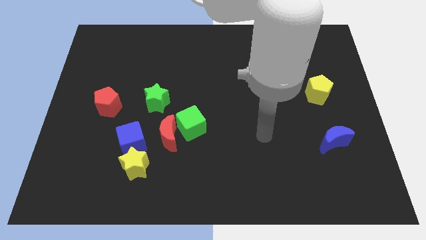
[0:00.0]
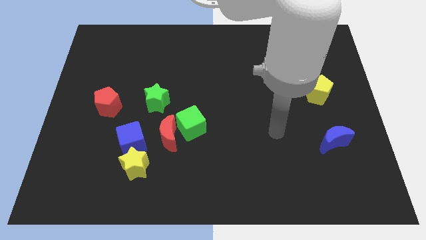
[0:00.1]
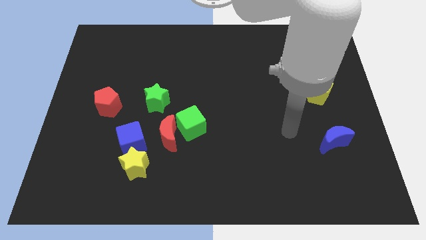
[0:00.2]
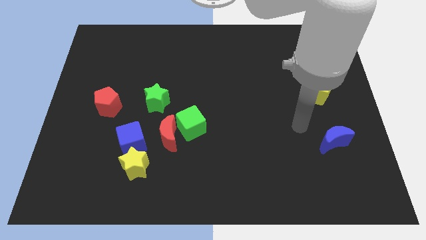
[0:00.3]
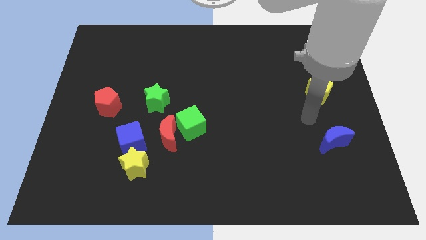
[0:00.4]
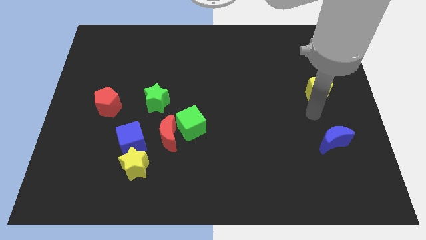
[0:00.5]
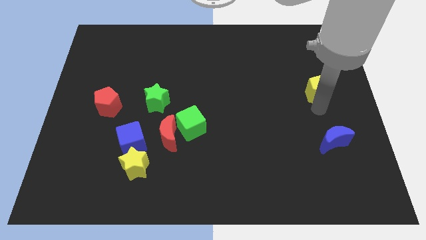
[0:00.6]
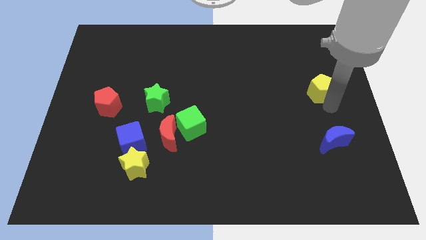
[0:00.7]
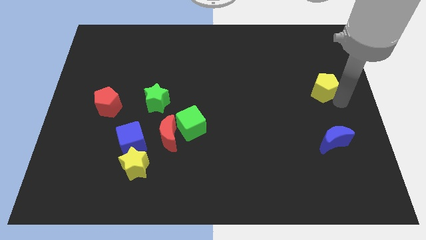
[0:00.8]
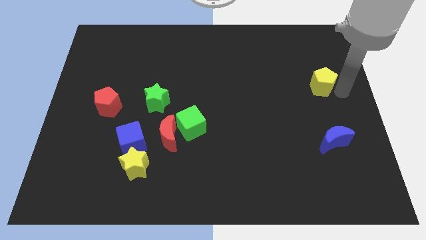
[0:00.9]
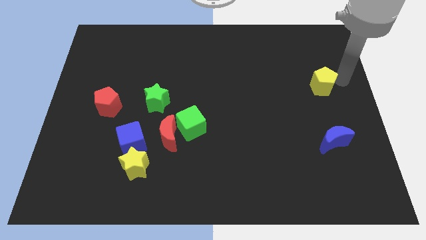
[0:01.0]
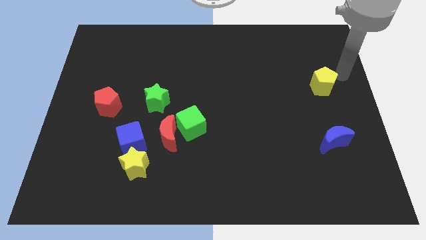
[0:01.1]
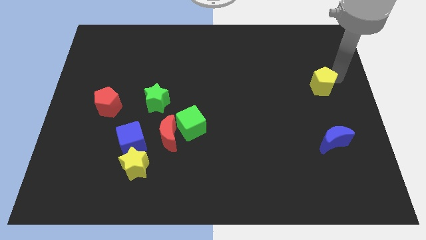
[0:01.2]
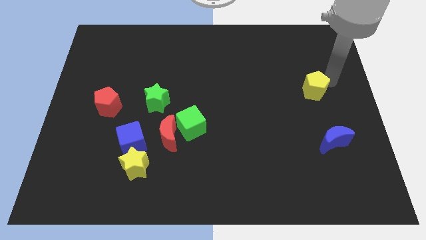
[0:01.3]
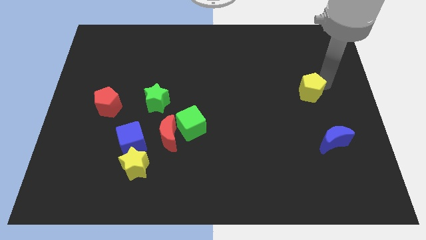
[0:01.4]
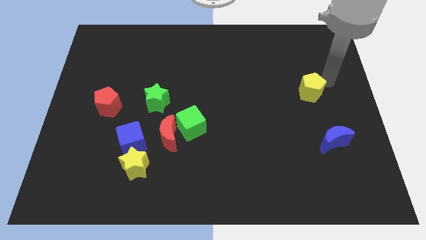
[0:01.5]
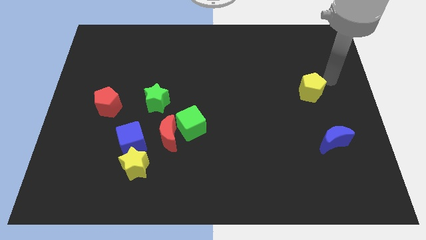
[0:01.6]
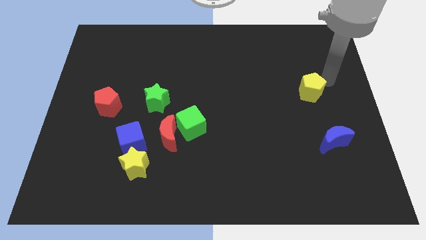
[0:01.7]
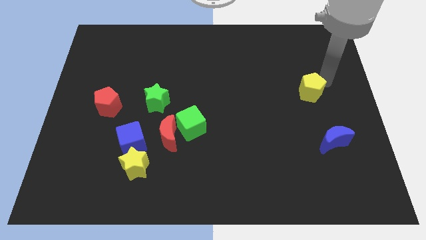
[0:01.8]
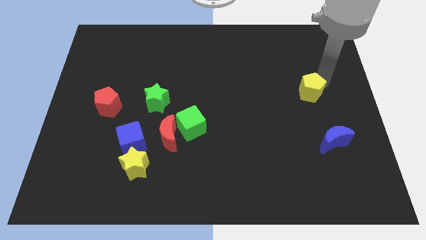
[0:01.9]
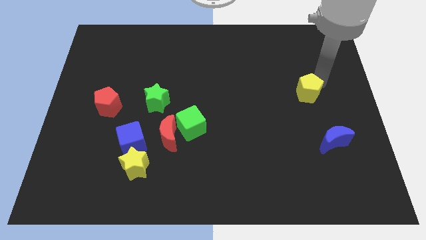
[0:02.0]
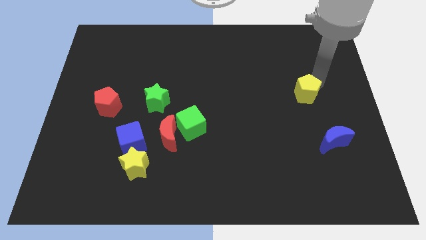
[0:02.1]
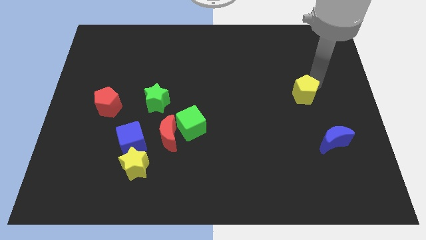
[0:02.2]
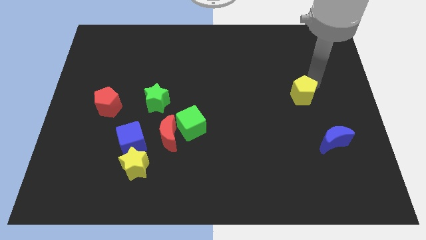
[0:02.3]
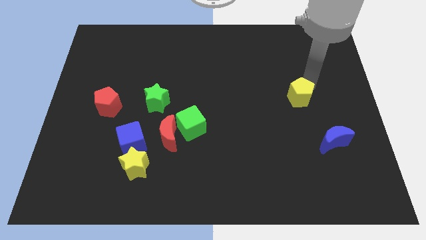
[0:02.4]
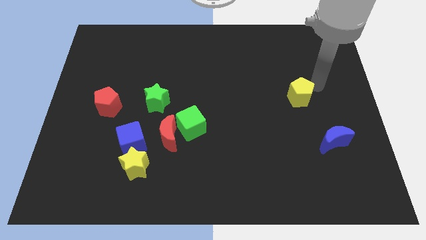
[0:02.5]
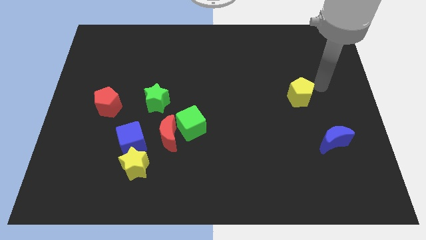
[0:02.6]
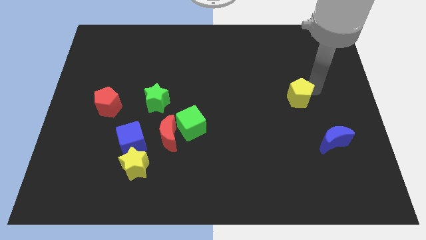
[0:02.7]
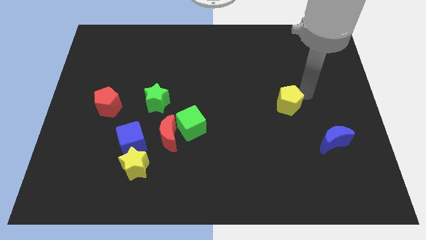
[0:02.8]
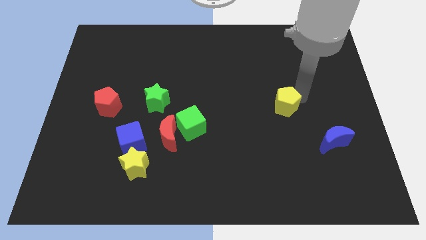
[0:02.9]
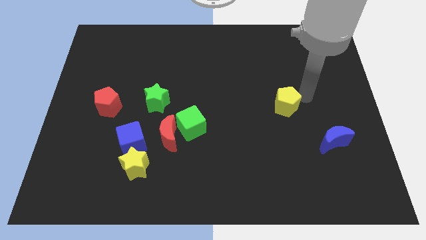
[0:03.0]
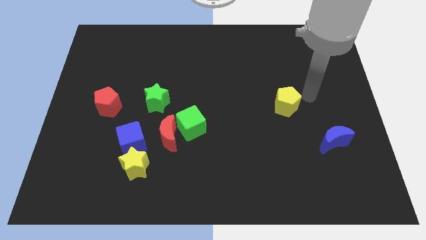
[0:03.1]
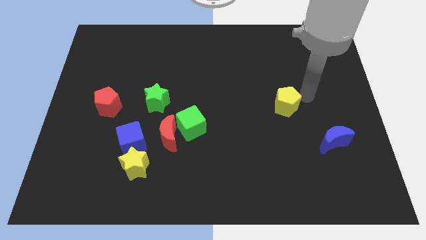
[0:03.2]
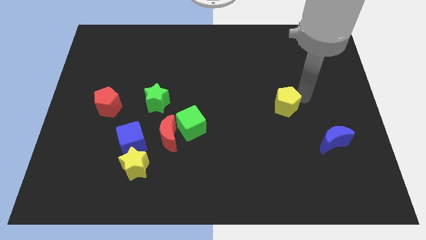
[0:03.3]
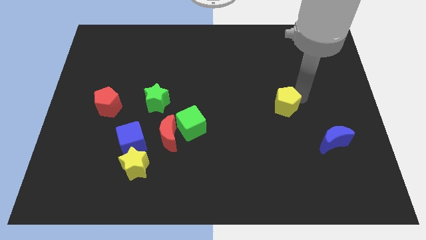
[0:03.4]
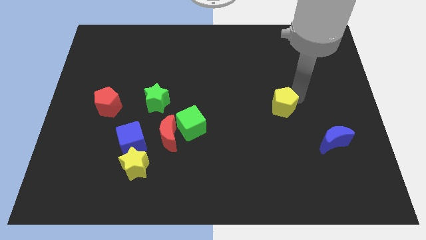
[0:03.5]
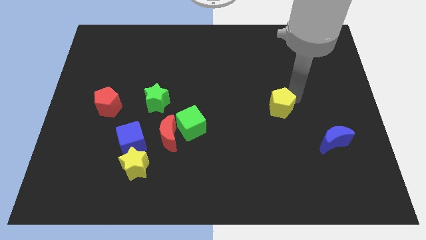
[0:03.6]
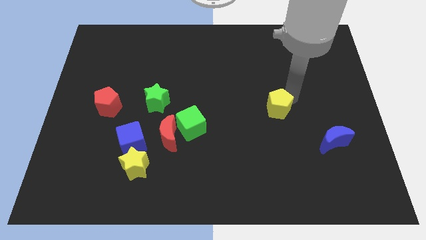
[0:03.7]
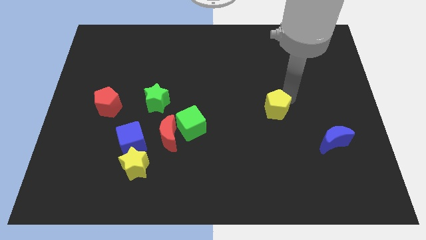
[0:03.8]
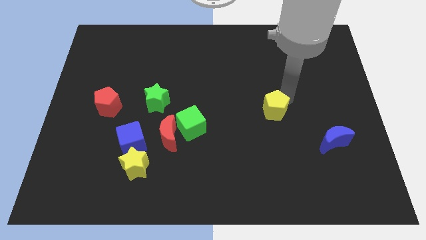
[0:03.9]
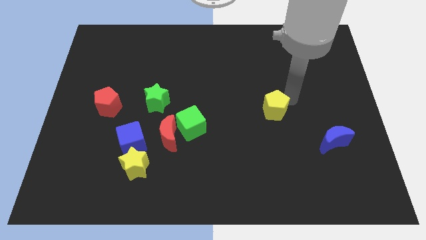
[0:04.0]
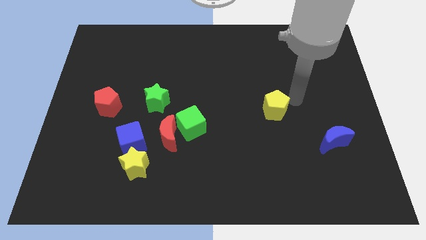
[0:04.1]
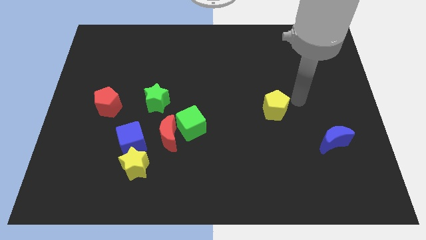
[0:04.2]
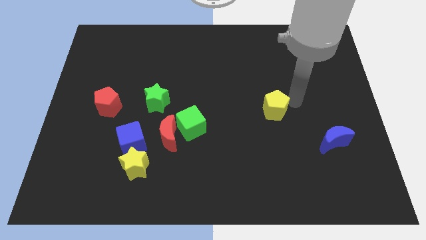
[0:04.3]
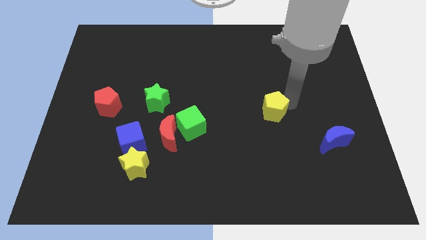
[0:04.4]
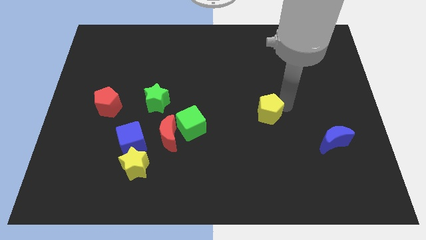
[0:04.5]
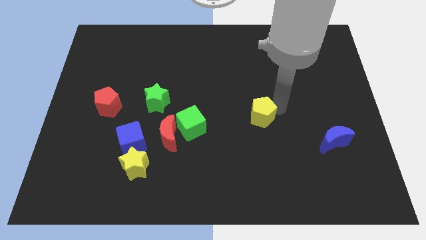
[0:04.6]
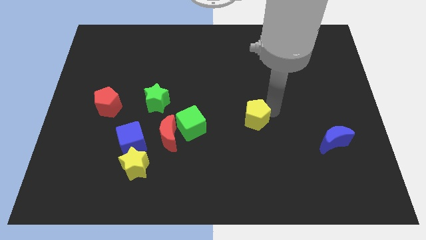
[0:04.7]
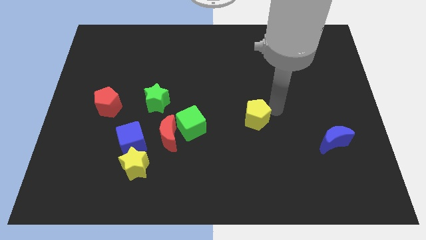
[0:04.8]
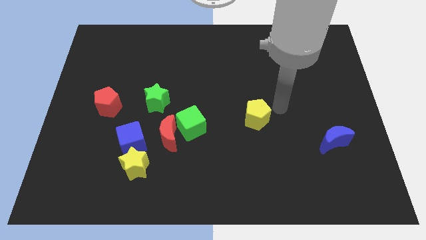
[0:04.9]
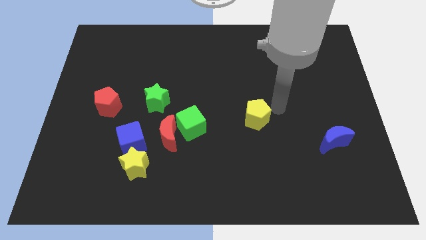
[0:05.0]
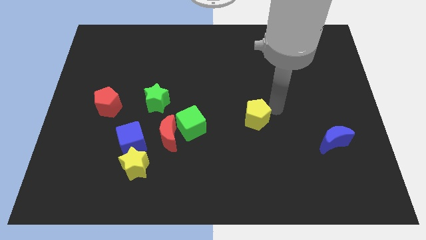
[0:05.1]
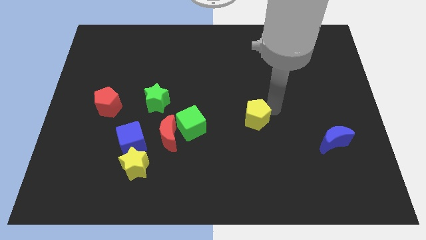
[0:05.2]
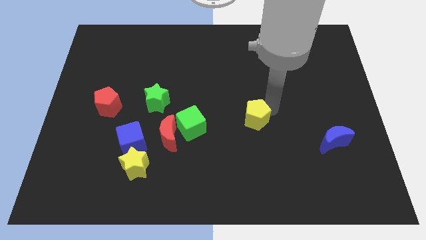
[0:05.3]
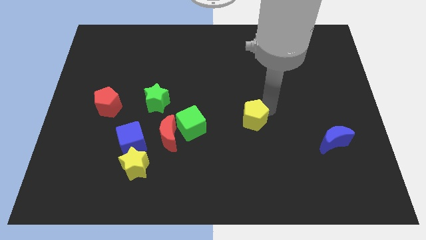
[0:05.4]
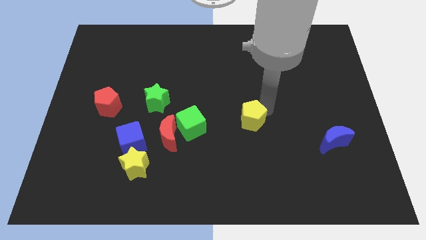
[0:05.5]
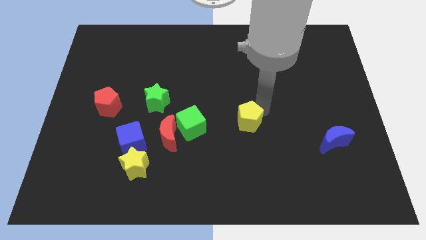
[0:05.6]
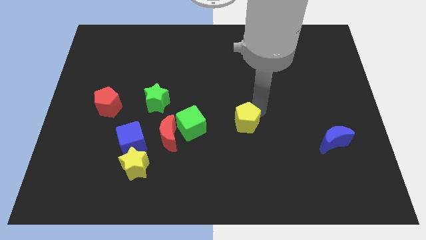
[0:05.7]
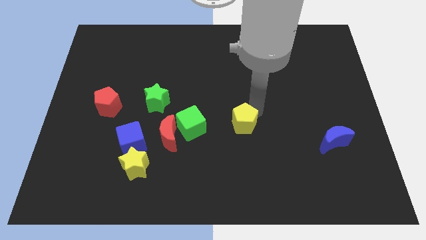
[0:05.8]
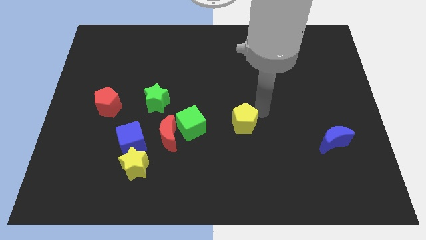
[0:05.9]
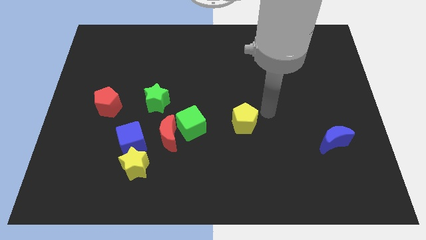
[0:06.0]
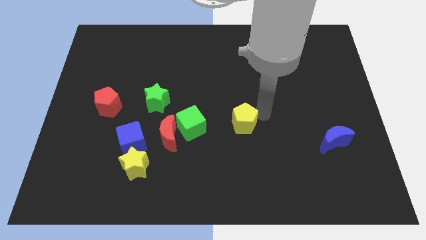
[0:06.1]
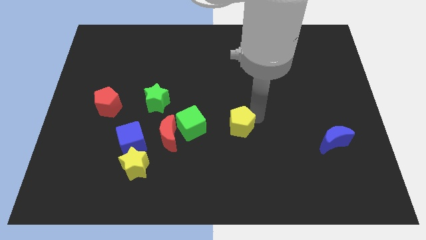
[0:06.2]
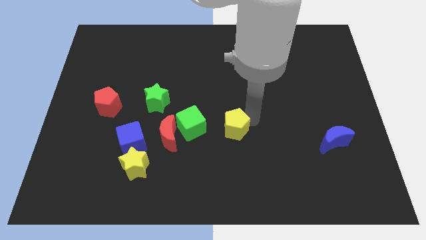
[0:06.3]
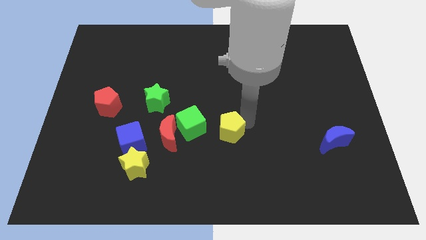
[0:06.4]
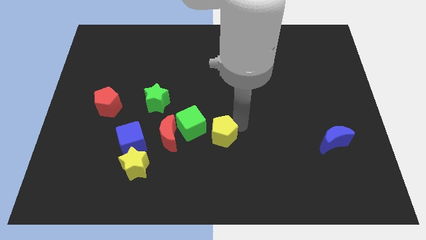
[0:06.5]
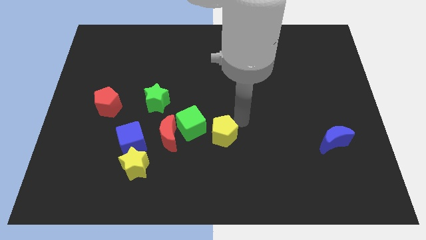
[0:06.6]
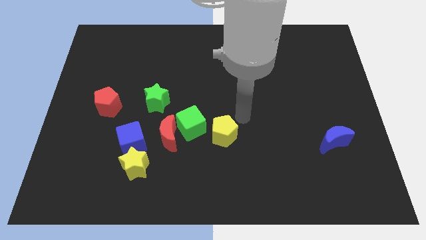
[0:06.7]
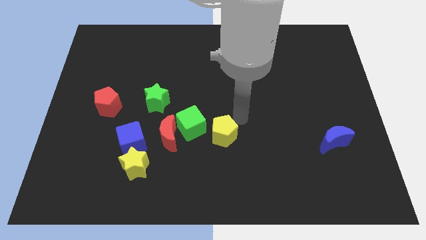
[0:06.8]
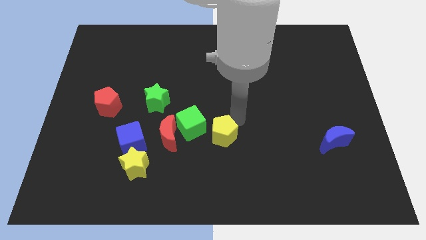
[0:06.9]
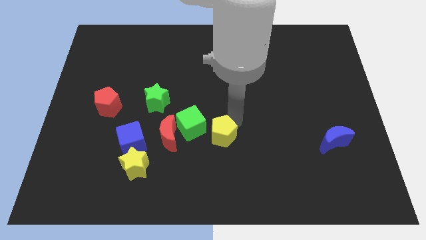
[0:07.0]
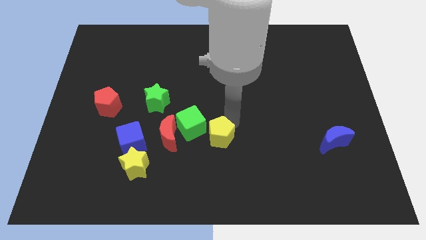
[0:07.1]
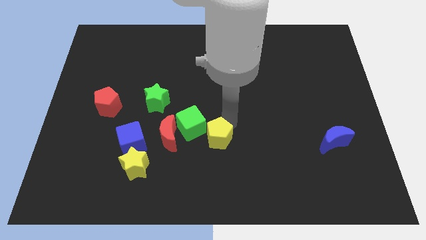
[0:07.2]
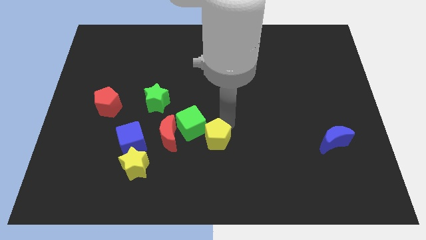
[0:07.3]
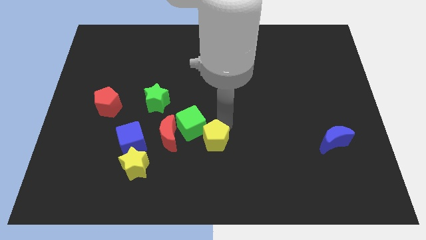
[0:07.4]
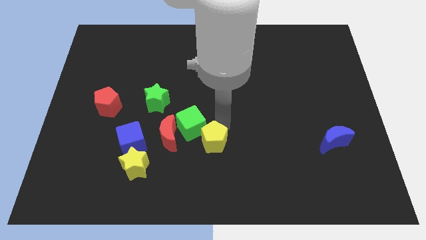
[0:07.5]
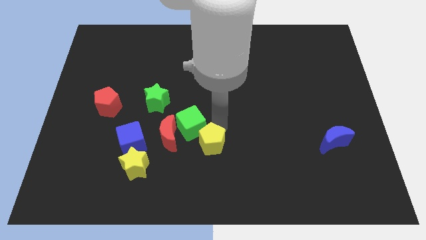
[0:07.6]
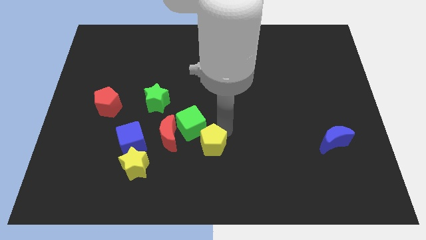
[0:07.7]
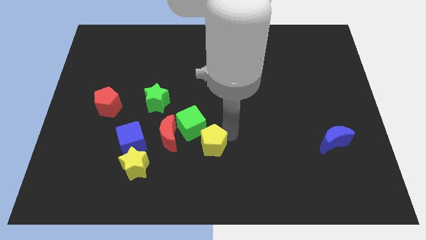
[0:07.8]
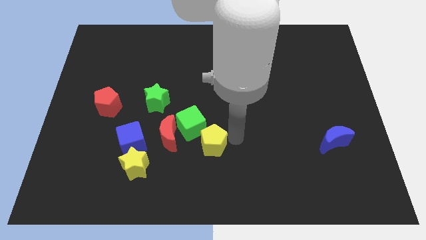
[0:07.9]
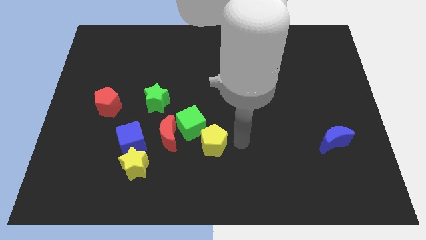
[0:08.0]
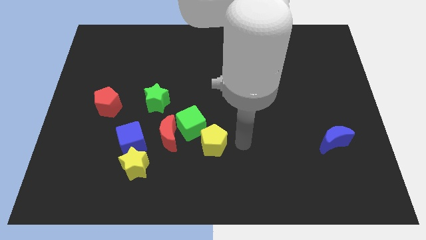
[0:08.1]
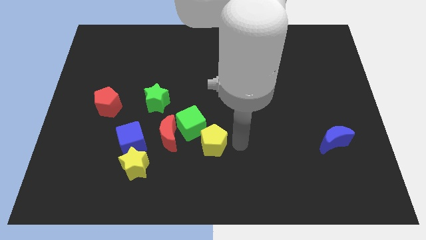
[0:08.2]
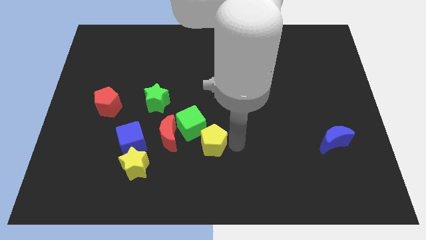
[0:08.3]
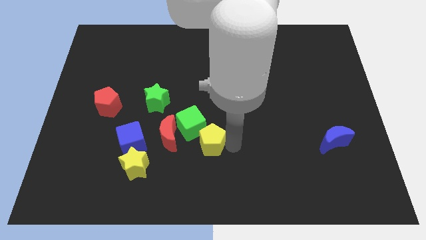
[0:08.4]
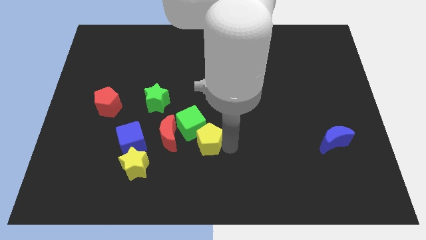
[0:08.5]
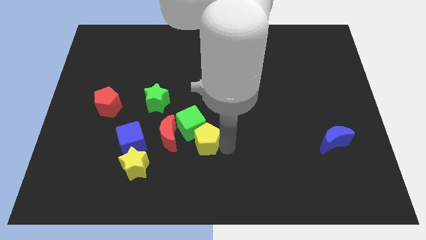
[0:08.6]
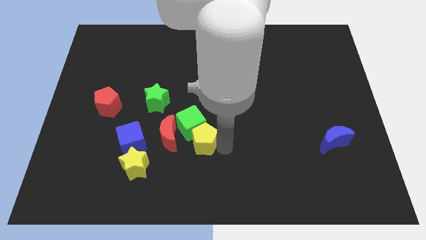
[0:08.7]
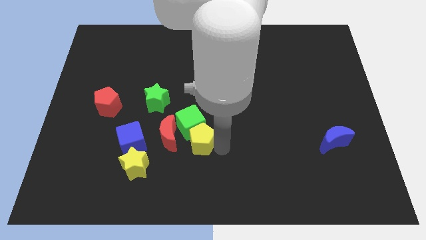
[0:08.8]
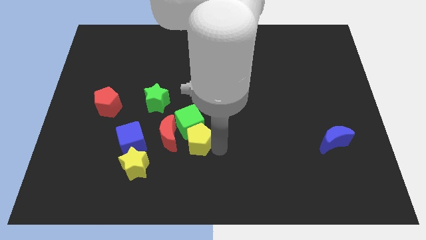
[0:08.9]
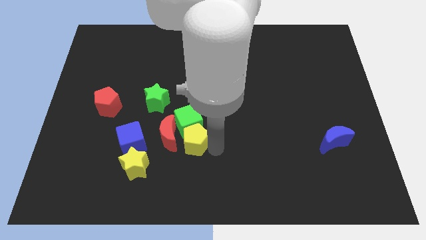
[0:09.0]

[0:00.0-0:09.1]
slide the yellow pentagon next to the red moon
